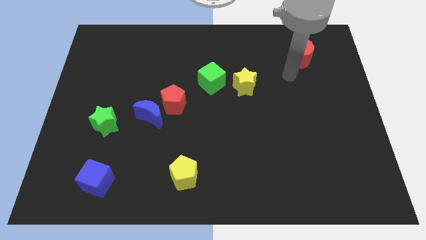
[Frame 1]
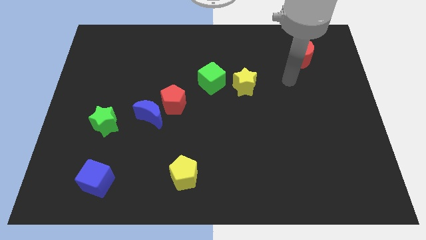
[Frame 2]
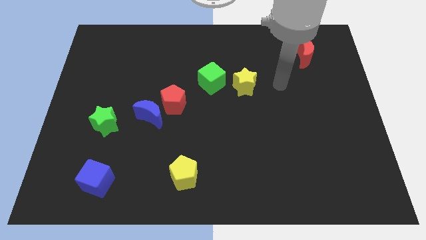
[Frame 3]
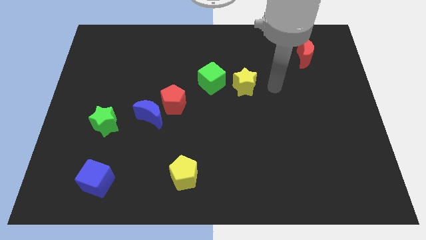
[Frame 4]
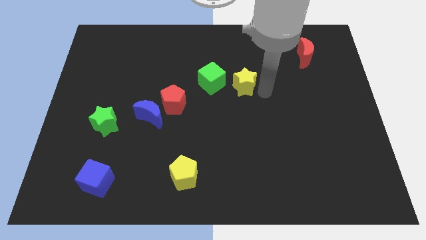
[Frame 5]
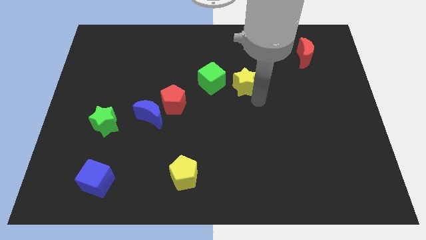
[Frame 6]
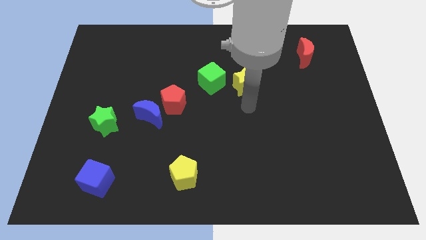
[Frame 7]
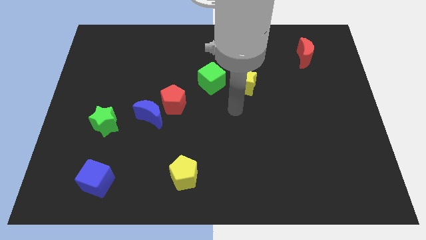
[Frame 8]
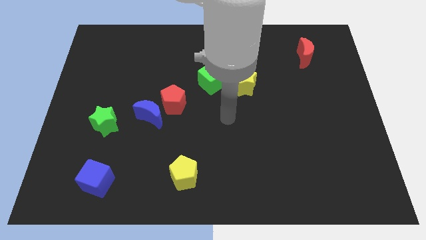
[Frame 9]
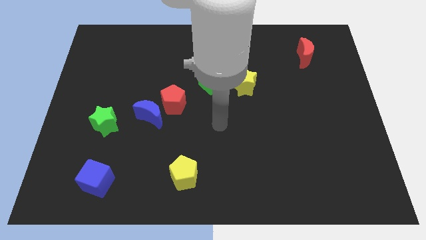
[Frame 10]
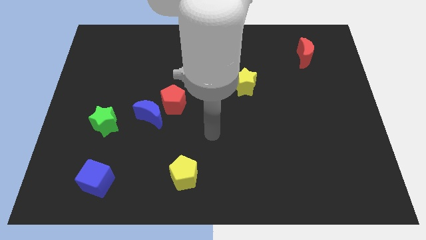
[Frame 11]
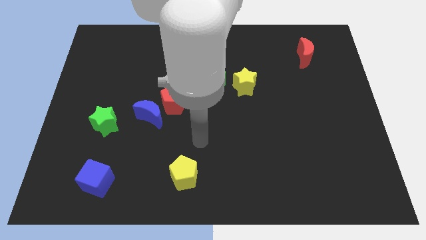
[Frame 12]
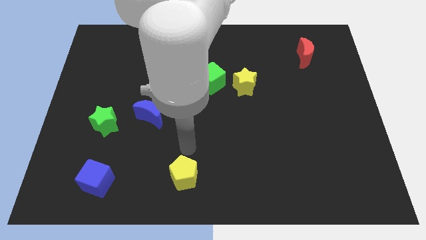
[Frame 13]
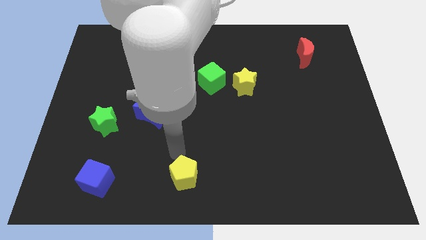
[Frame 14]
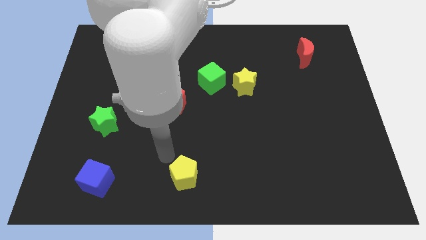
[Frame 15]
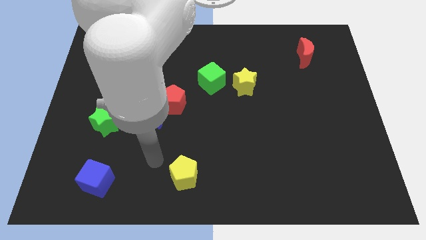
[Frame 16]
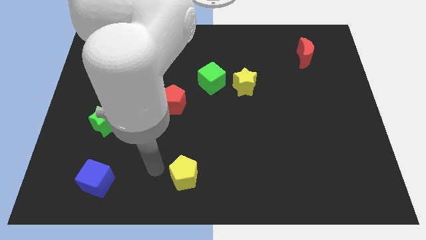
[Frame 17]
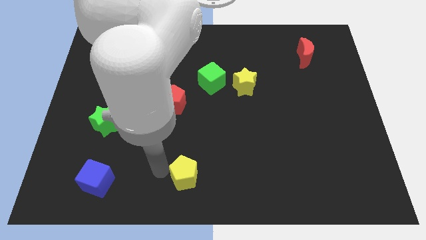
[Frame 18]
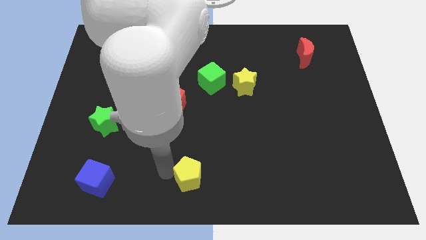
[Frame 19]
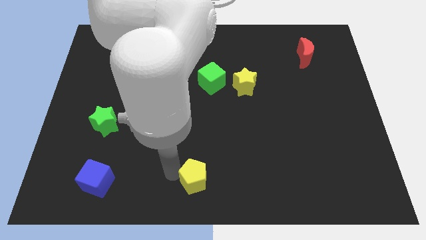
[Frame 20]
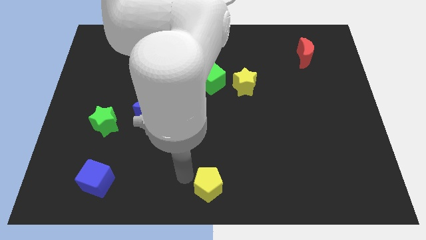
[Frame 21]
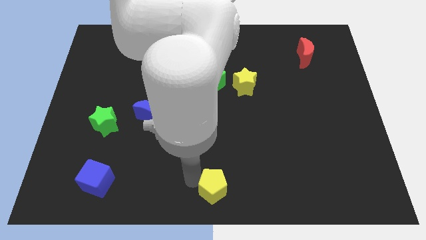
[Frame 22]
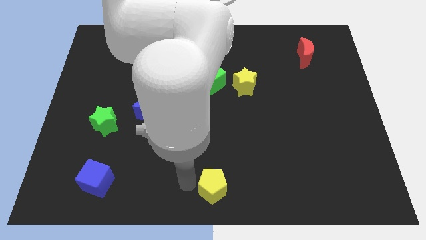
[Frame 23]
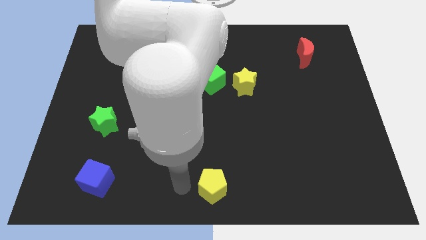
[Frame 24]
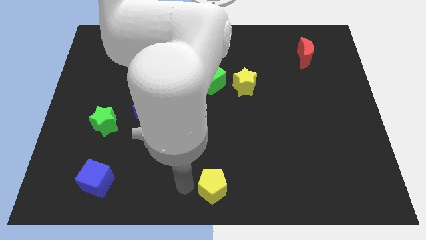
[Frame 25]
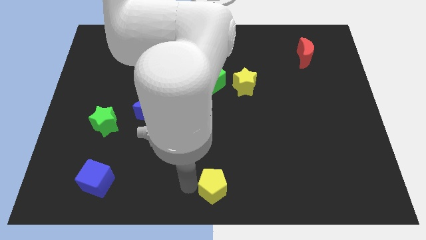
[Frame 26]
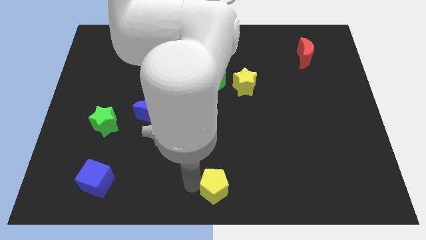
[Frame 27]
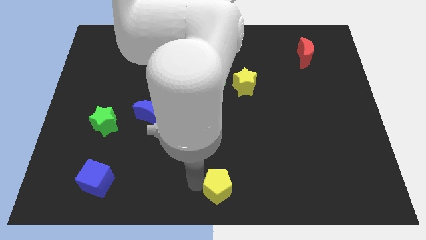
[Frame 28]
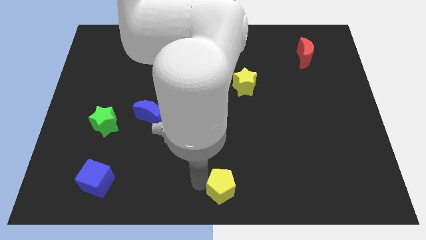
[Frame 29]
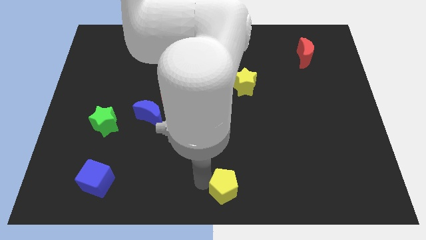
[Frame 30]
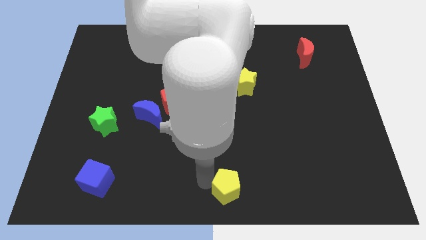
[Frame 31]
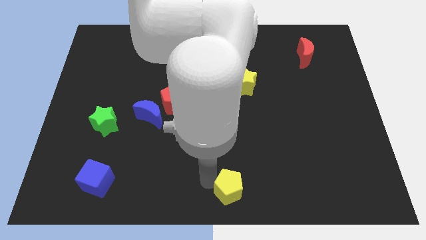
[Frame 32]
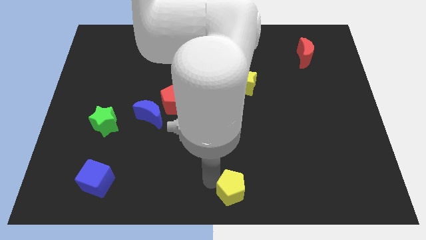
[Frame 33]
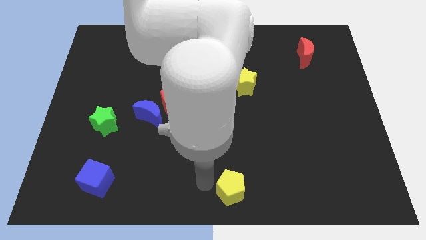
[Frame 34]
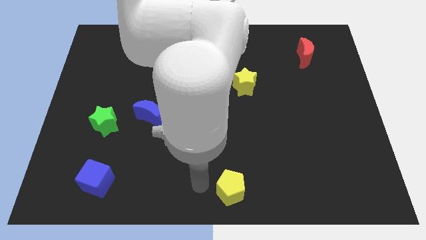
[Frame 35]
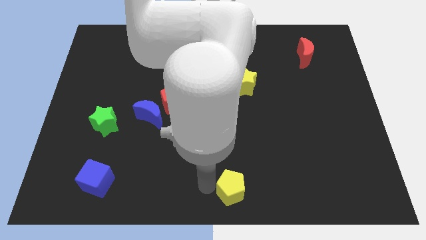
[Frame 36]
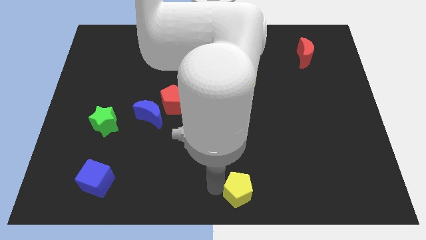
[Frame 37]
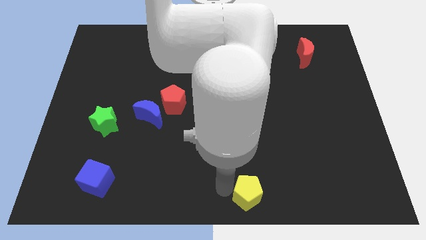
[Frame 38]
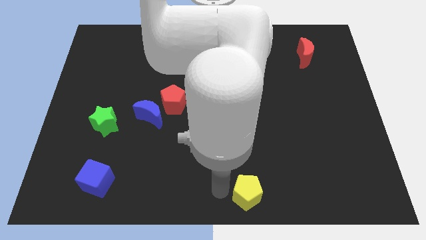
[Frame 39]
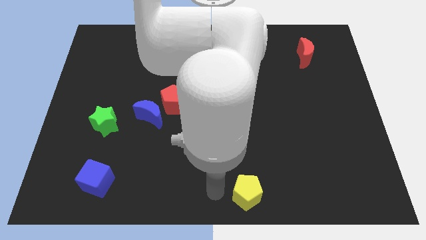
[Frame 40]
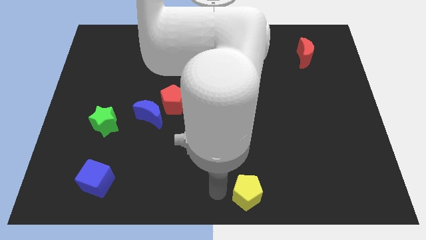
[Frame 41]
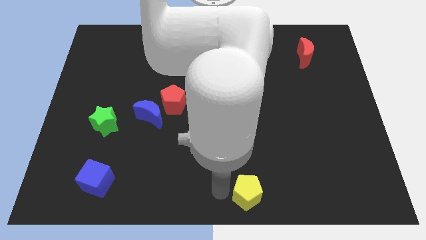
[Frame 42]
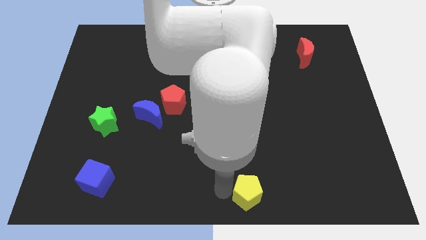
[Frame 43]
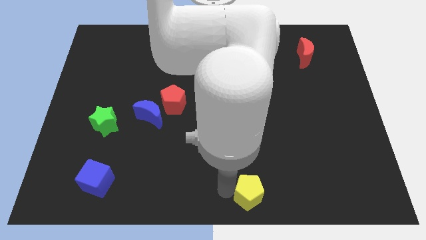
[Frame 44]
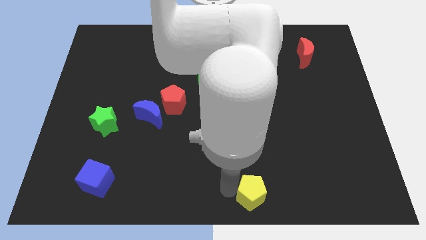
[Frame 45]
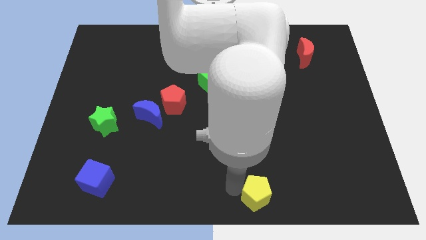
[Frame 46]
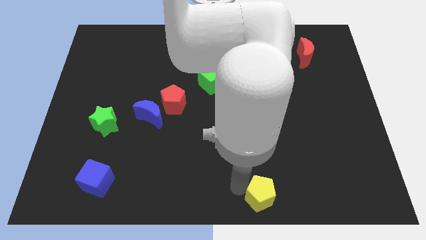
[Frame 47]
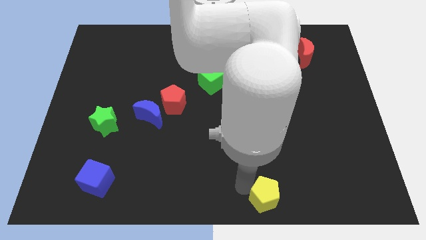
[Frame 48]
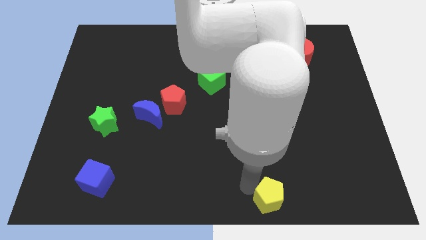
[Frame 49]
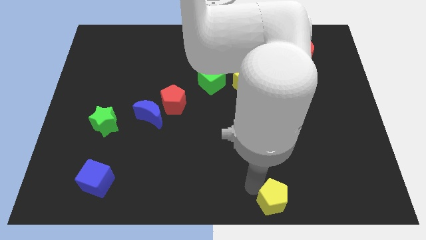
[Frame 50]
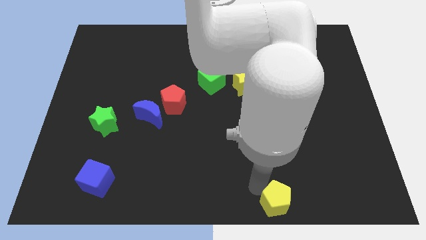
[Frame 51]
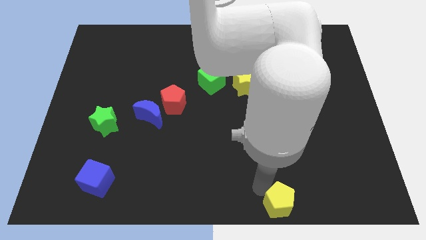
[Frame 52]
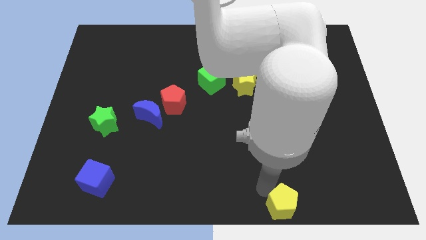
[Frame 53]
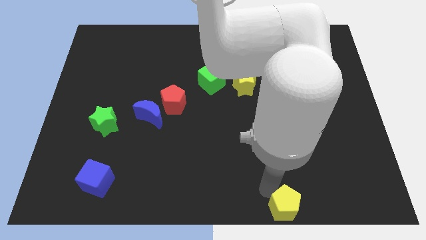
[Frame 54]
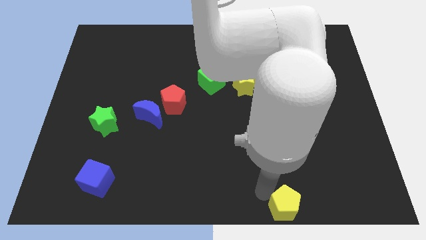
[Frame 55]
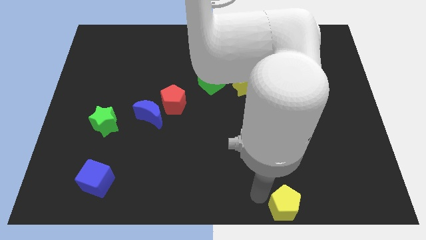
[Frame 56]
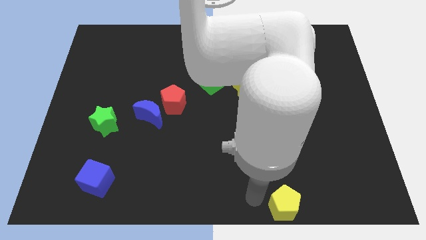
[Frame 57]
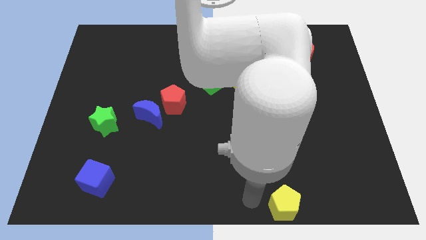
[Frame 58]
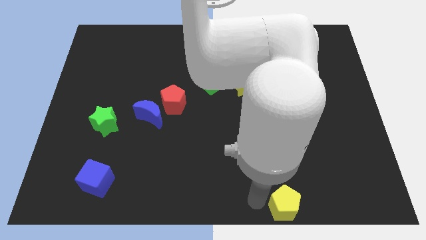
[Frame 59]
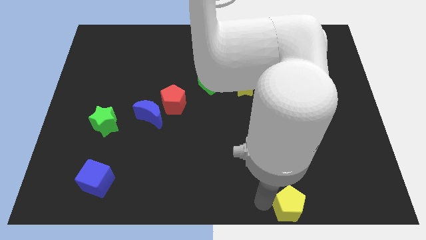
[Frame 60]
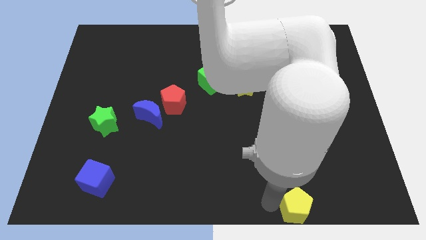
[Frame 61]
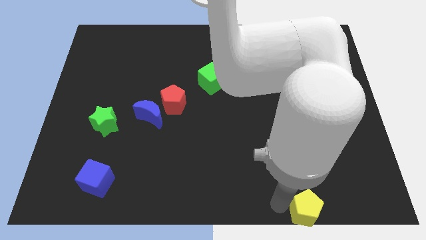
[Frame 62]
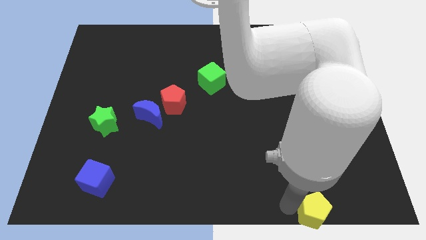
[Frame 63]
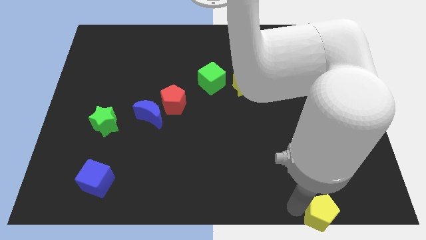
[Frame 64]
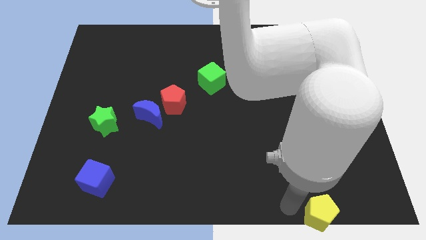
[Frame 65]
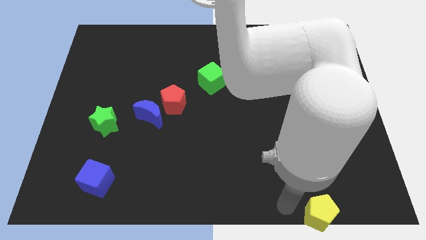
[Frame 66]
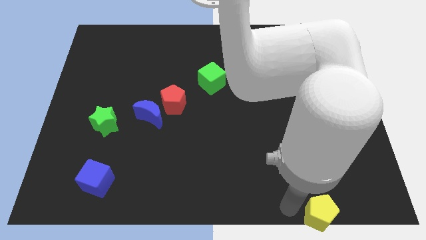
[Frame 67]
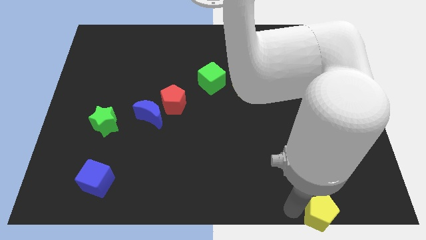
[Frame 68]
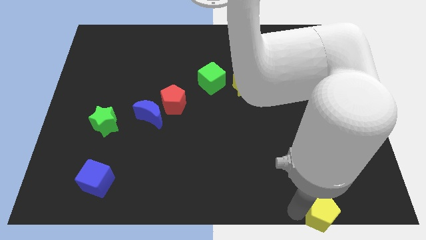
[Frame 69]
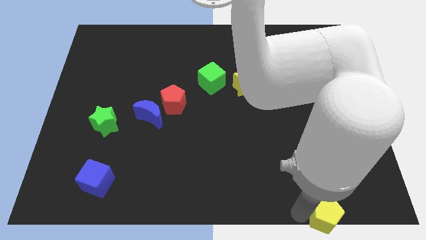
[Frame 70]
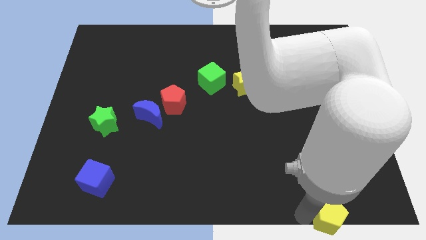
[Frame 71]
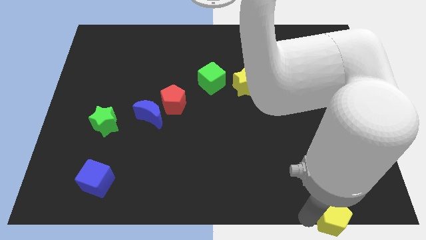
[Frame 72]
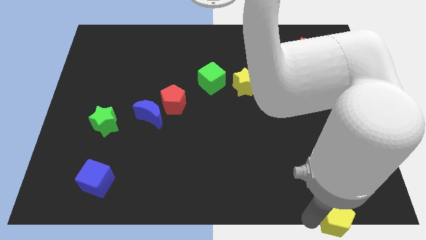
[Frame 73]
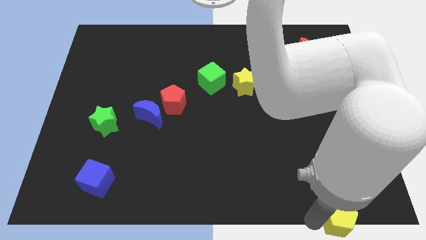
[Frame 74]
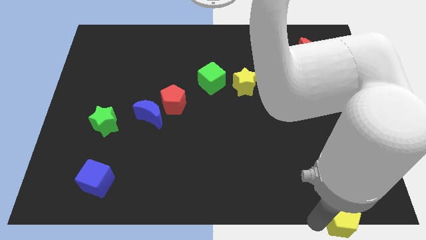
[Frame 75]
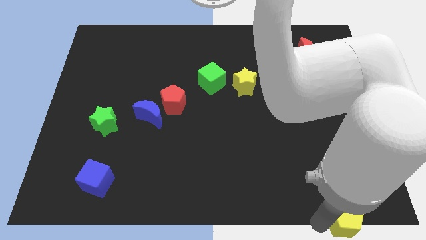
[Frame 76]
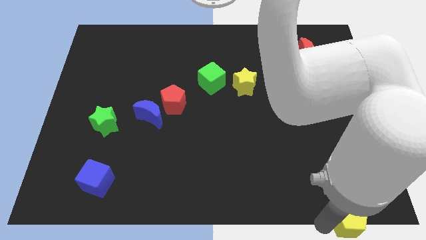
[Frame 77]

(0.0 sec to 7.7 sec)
put the yellow pentagon to the bottom right corner
